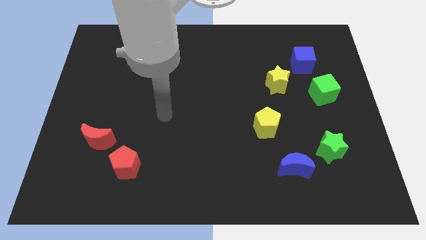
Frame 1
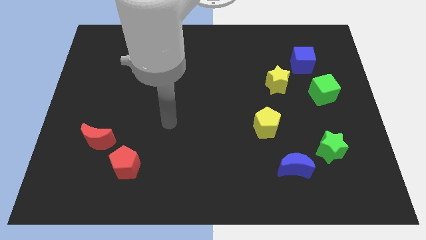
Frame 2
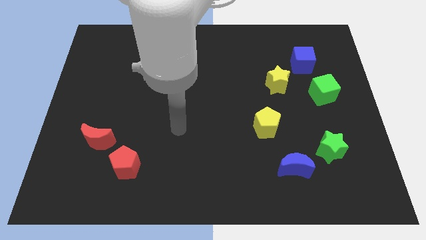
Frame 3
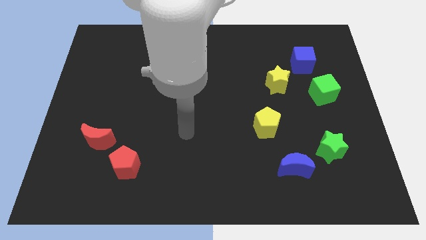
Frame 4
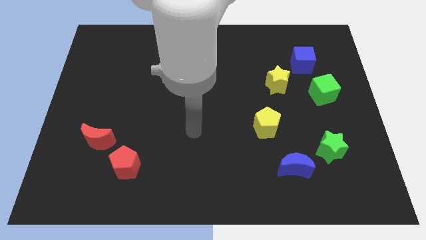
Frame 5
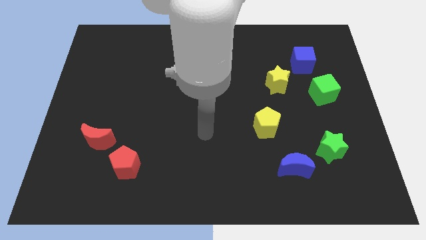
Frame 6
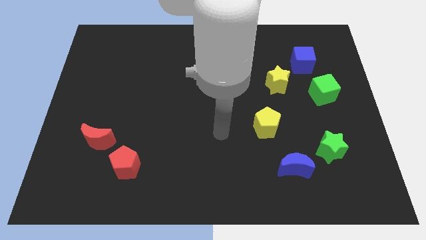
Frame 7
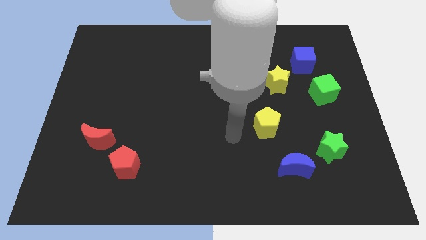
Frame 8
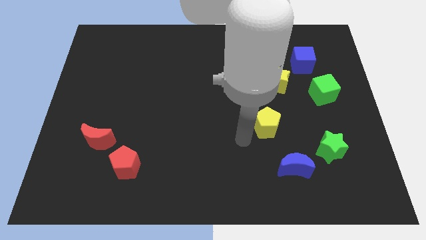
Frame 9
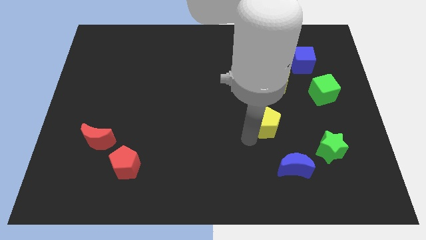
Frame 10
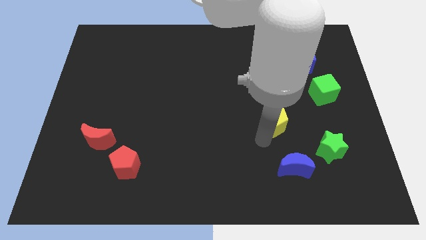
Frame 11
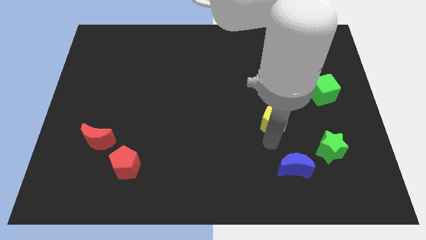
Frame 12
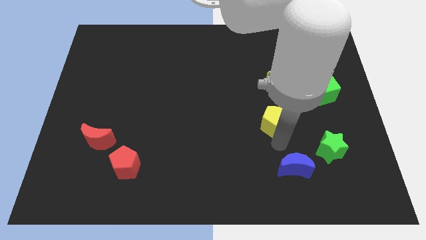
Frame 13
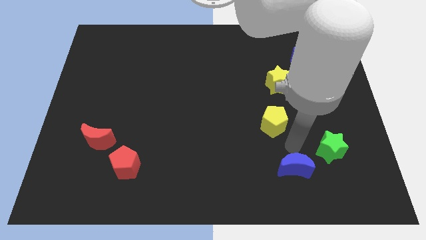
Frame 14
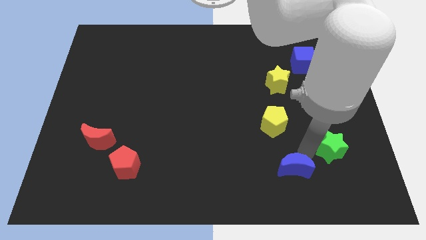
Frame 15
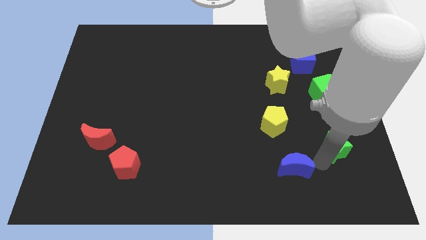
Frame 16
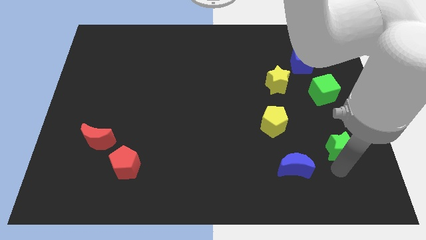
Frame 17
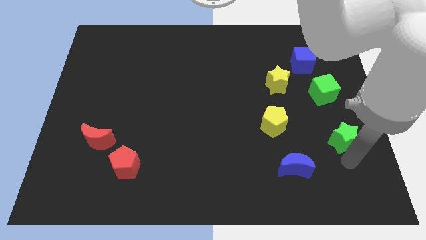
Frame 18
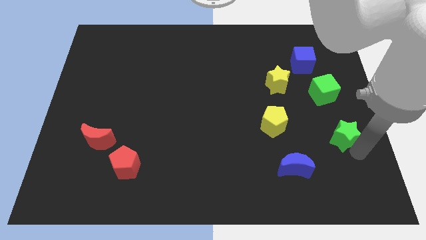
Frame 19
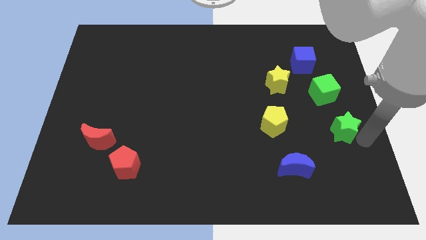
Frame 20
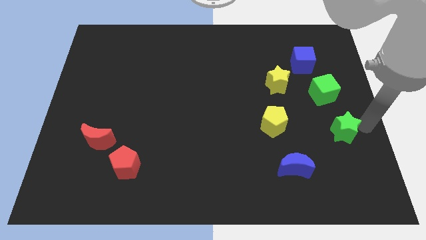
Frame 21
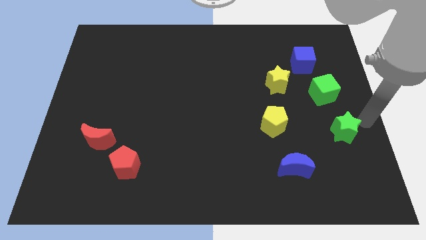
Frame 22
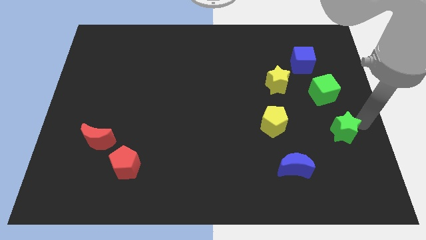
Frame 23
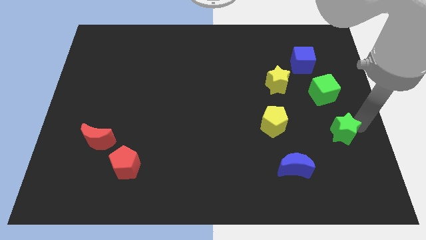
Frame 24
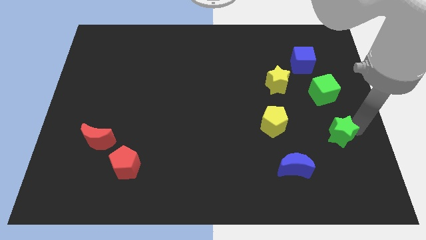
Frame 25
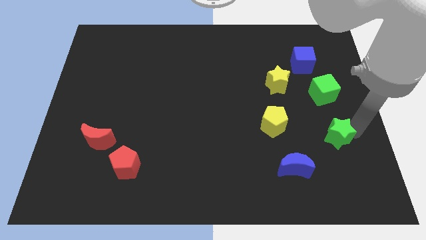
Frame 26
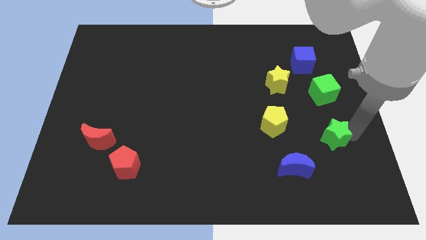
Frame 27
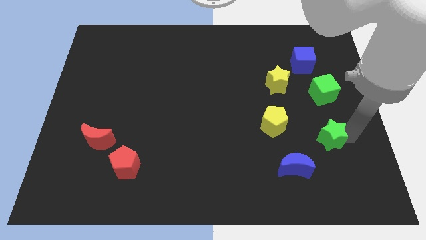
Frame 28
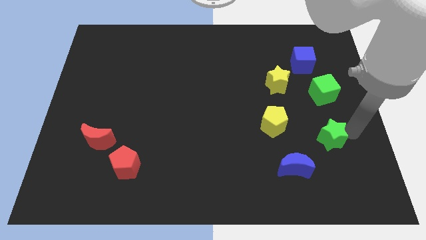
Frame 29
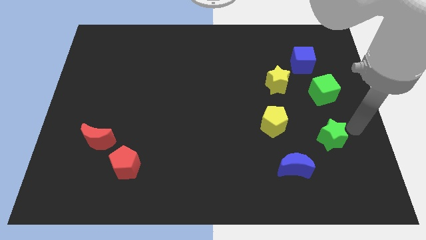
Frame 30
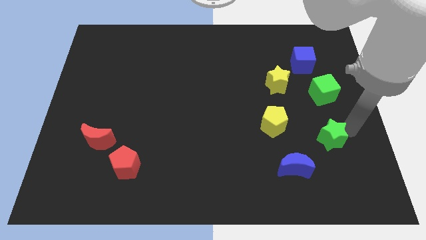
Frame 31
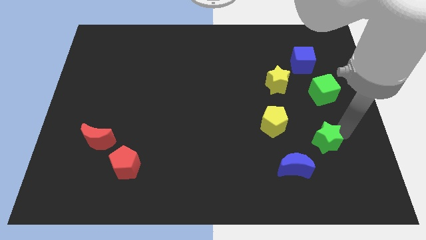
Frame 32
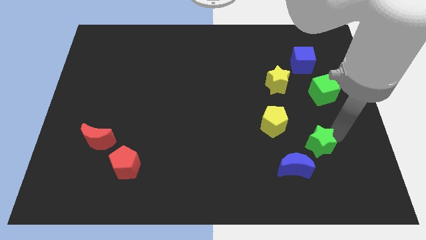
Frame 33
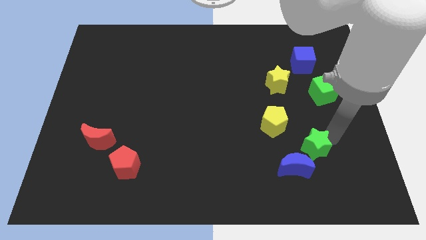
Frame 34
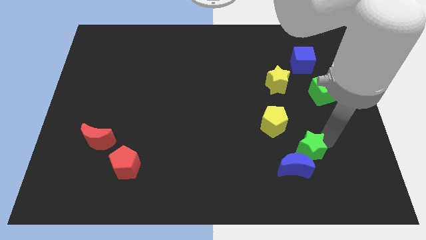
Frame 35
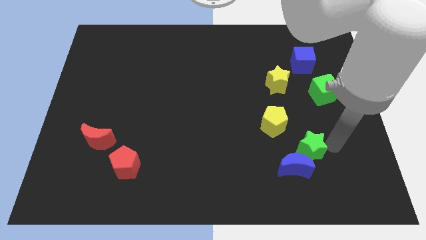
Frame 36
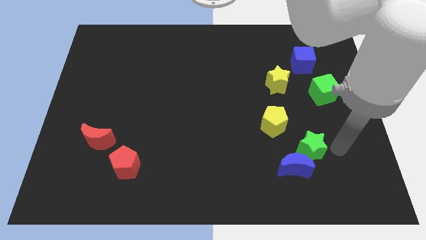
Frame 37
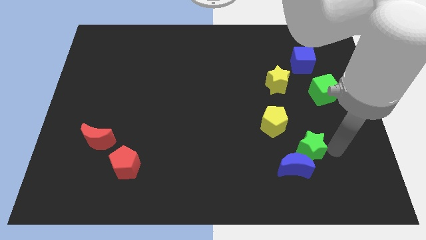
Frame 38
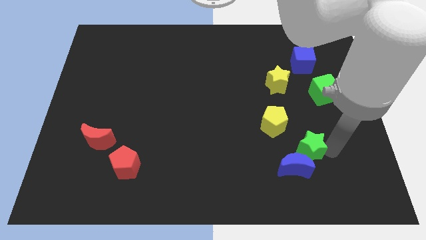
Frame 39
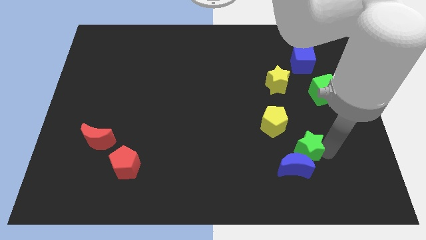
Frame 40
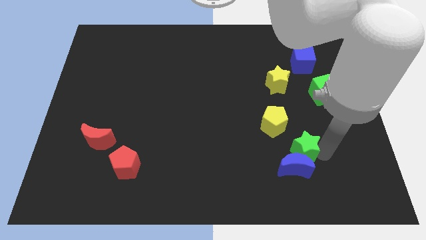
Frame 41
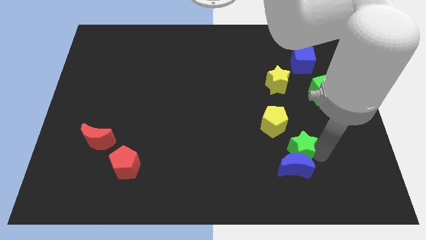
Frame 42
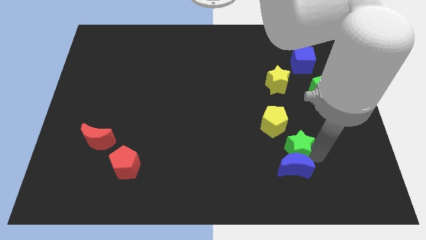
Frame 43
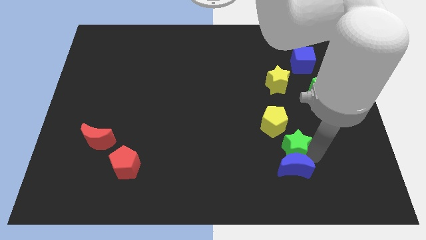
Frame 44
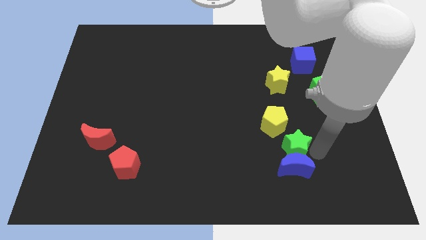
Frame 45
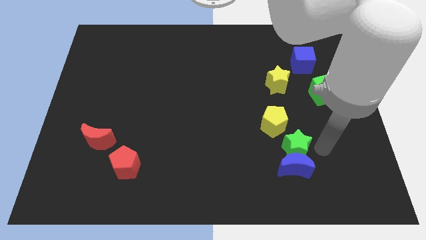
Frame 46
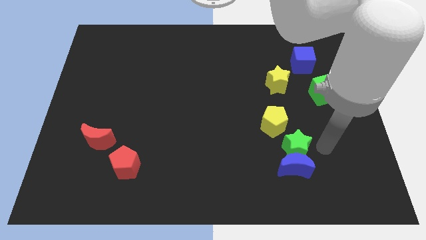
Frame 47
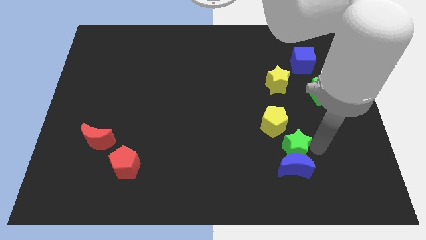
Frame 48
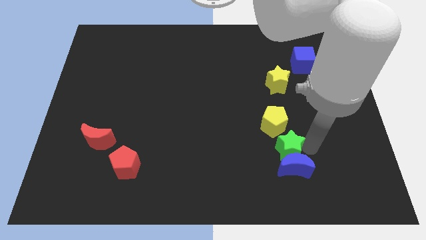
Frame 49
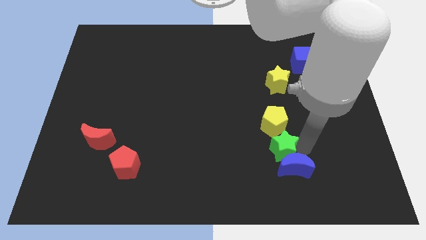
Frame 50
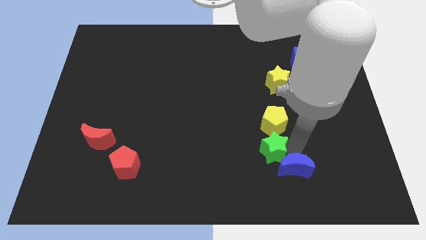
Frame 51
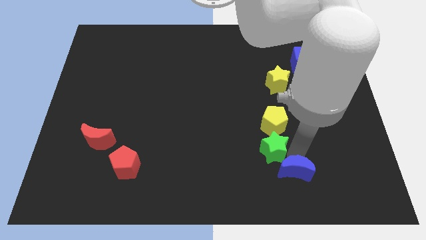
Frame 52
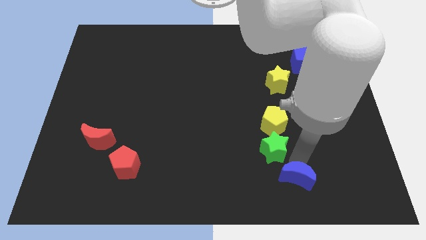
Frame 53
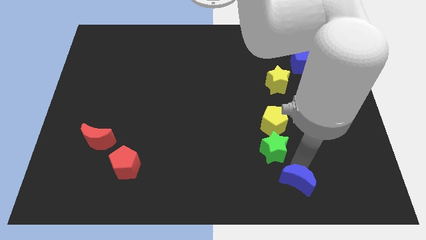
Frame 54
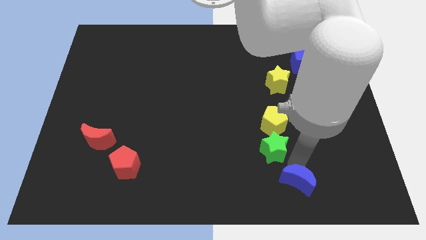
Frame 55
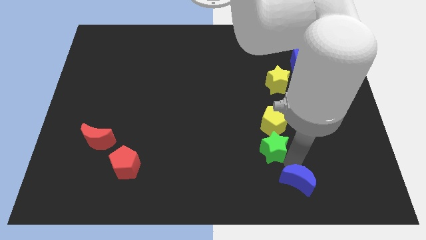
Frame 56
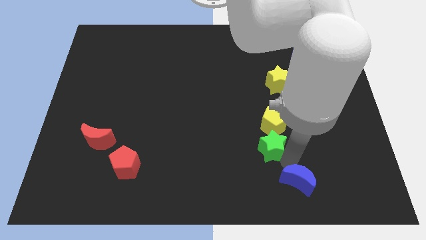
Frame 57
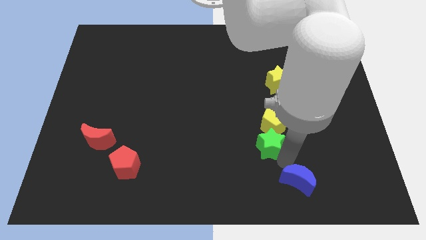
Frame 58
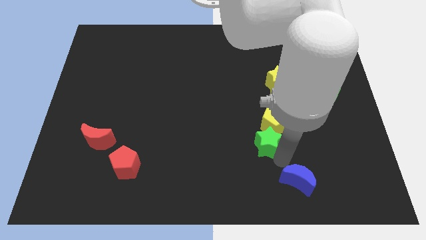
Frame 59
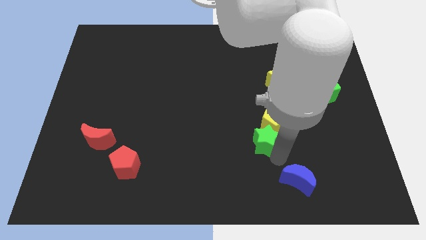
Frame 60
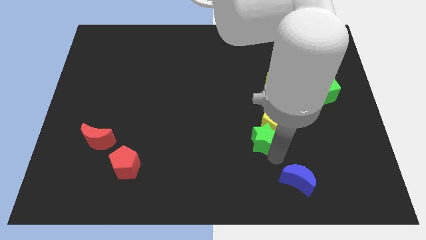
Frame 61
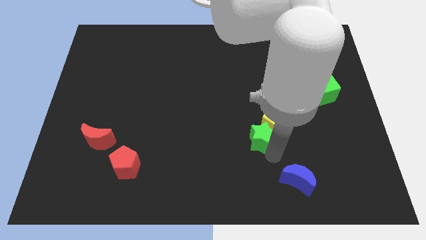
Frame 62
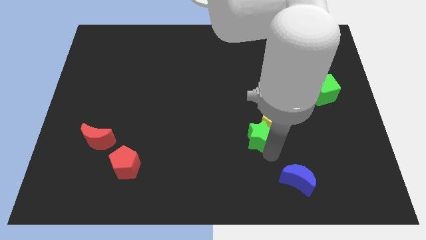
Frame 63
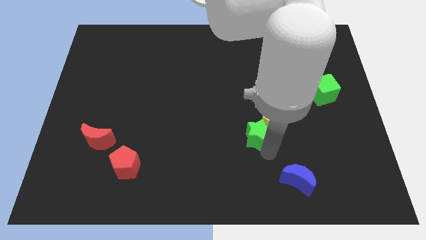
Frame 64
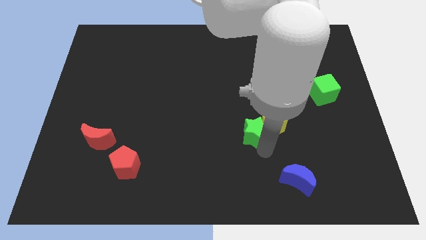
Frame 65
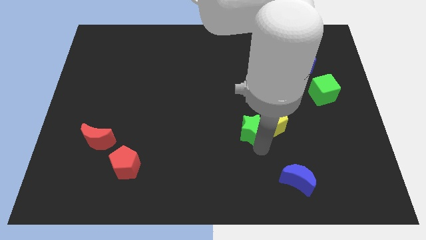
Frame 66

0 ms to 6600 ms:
slide the green star to the middle
